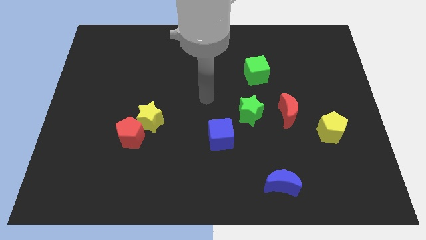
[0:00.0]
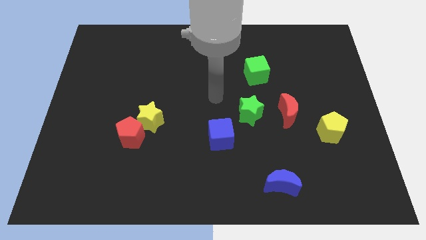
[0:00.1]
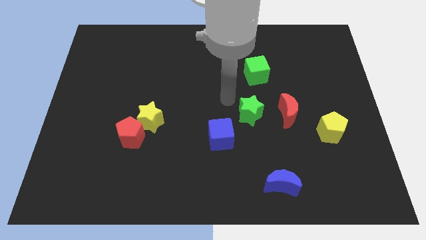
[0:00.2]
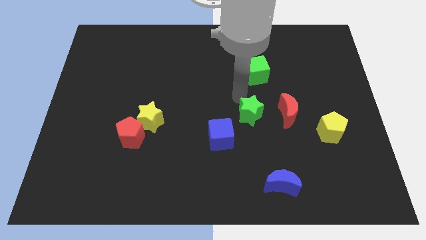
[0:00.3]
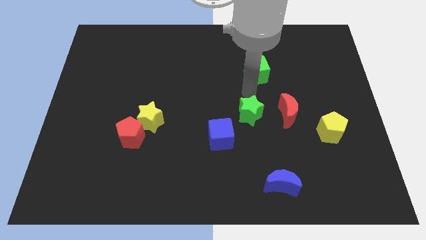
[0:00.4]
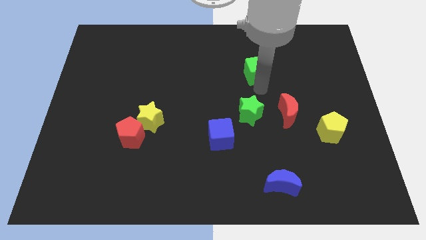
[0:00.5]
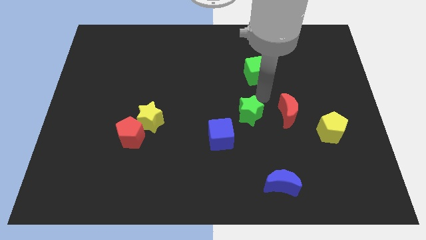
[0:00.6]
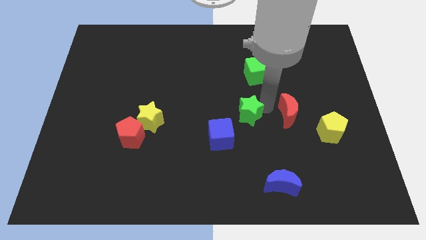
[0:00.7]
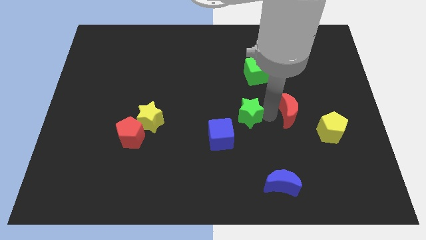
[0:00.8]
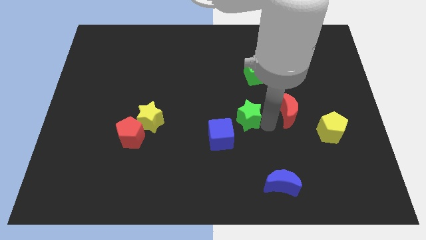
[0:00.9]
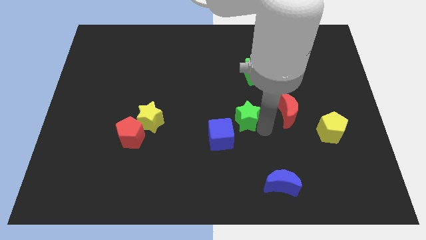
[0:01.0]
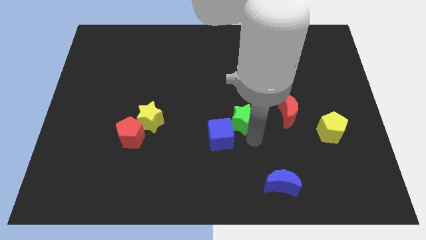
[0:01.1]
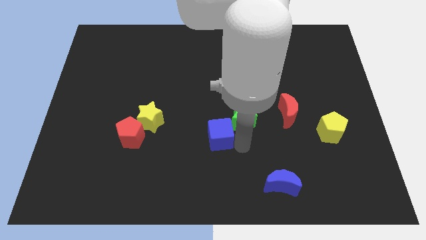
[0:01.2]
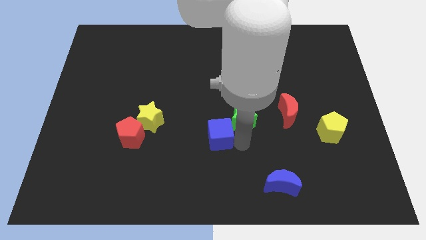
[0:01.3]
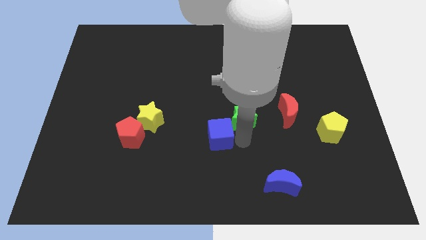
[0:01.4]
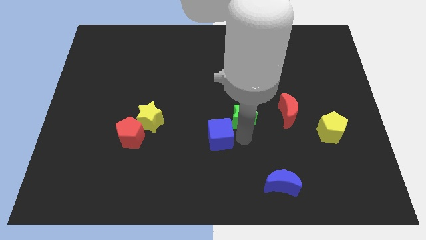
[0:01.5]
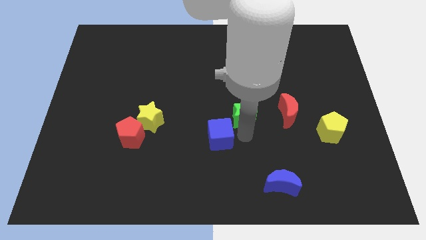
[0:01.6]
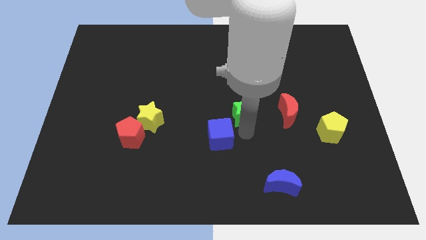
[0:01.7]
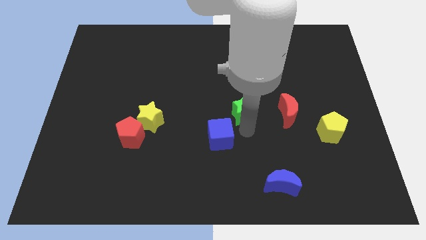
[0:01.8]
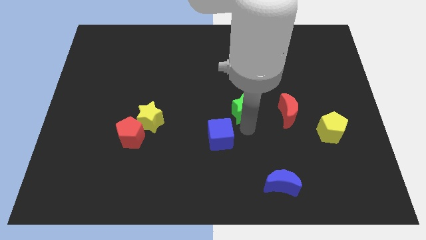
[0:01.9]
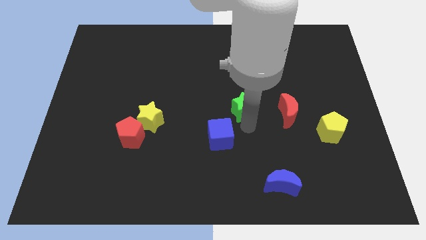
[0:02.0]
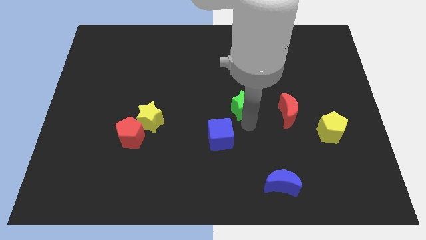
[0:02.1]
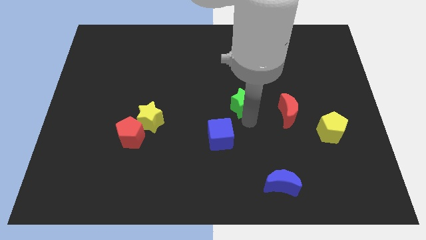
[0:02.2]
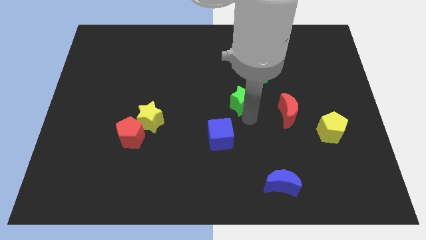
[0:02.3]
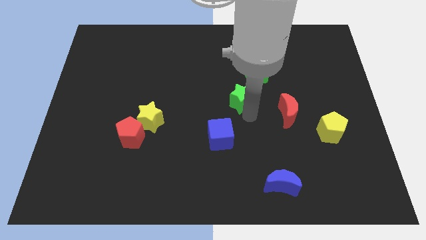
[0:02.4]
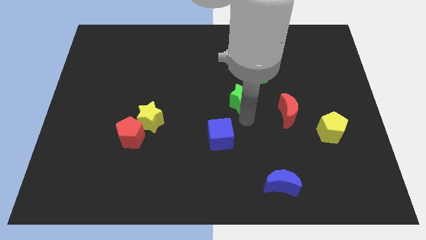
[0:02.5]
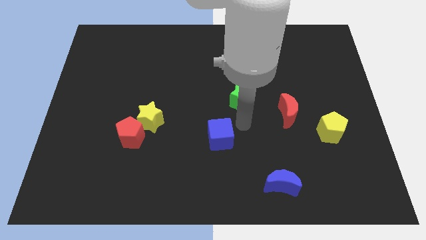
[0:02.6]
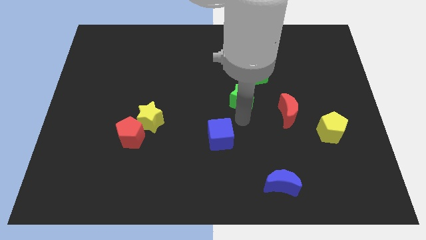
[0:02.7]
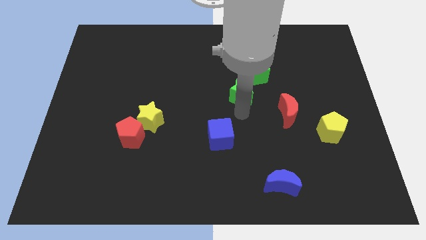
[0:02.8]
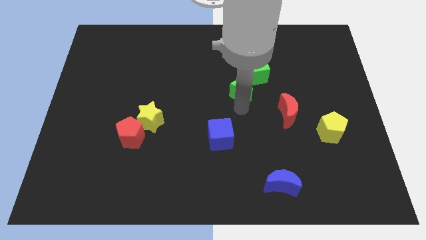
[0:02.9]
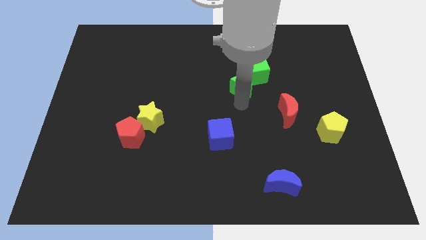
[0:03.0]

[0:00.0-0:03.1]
push the green star upwards a little

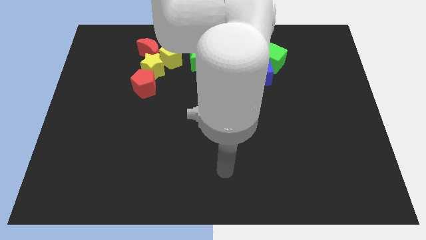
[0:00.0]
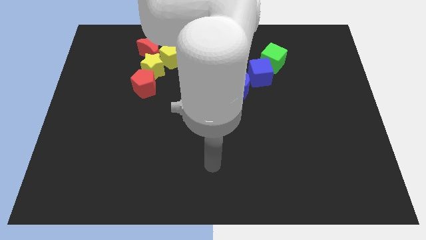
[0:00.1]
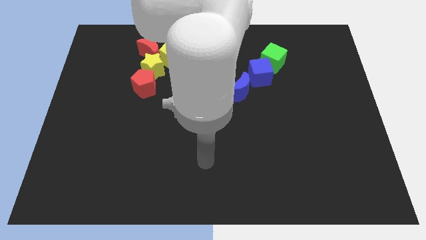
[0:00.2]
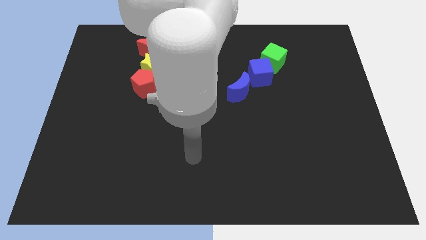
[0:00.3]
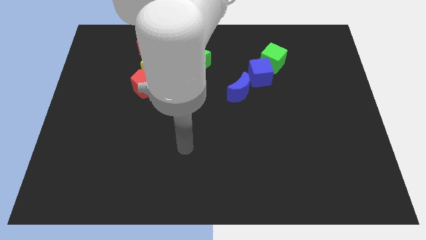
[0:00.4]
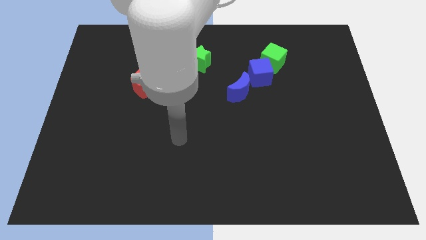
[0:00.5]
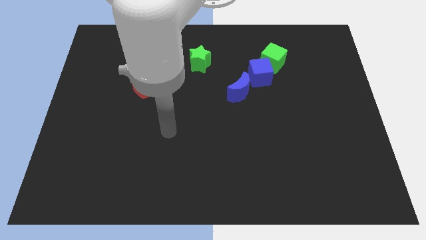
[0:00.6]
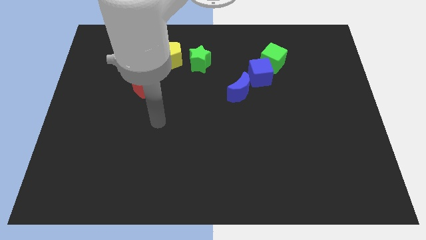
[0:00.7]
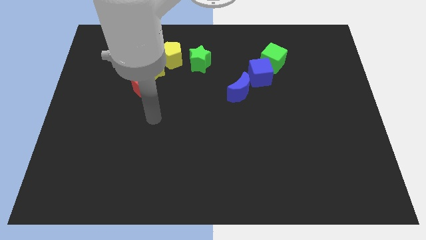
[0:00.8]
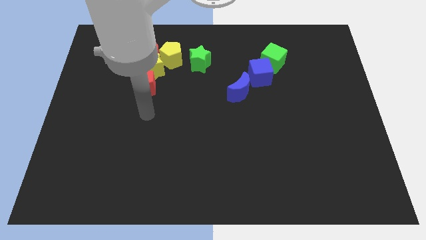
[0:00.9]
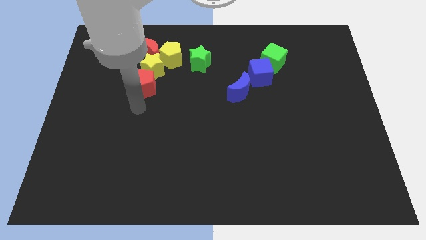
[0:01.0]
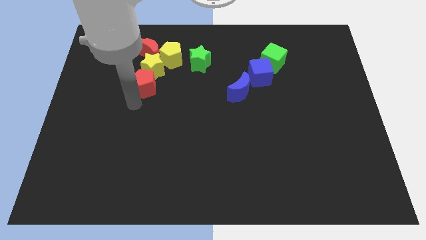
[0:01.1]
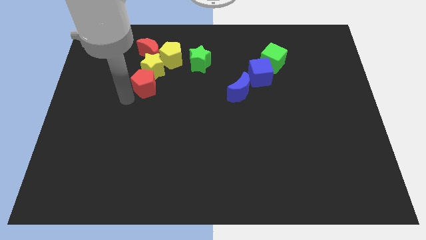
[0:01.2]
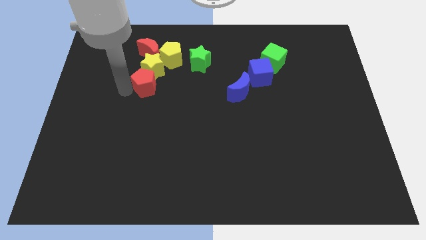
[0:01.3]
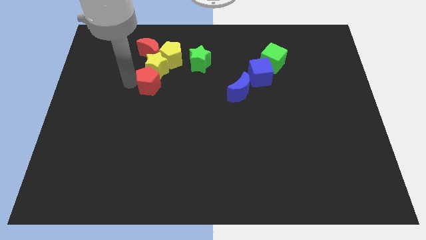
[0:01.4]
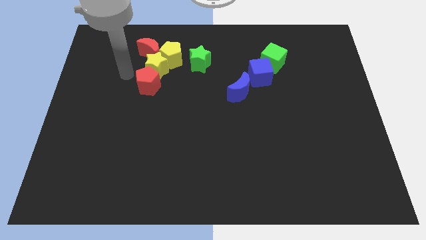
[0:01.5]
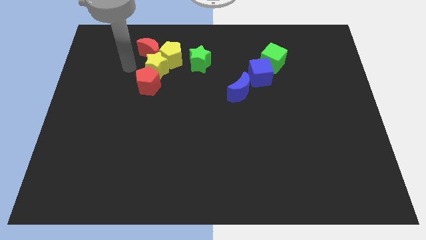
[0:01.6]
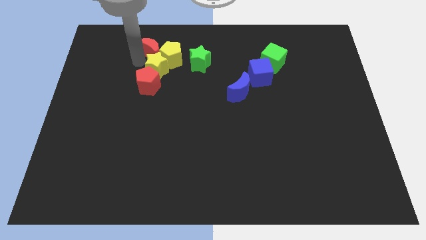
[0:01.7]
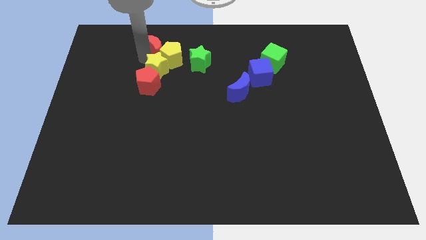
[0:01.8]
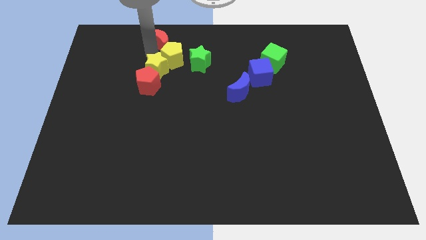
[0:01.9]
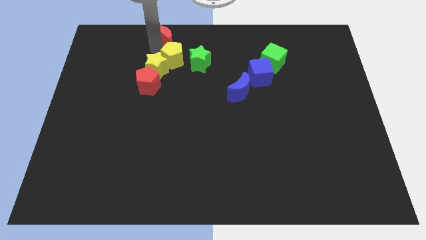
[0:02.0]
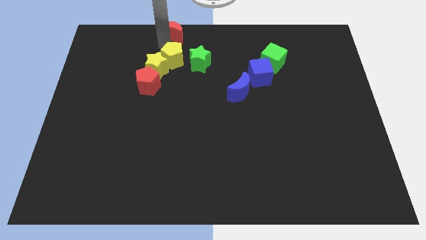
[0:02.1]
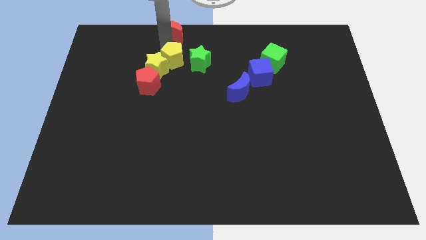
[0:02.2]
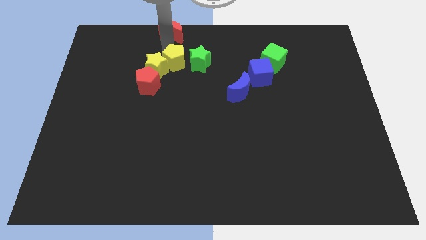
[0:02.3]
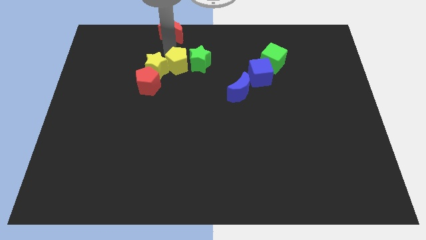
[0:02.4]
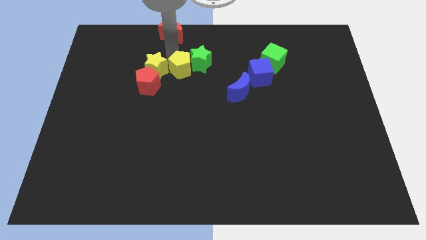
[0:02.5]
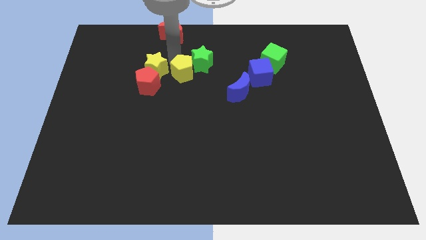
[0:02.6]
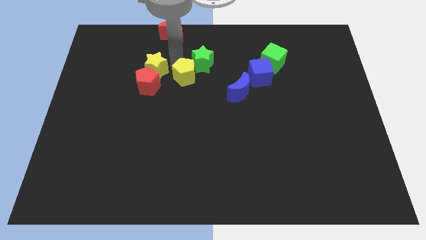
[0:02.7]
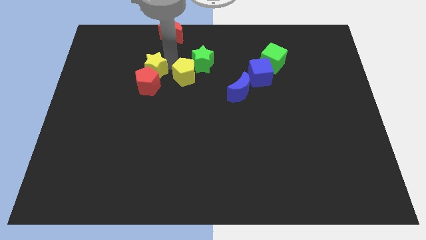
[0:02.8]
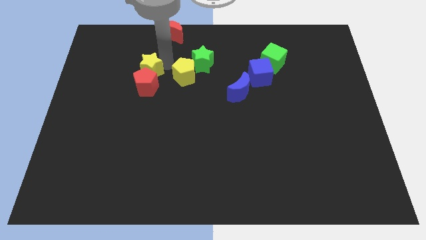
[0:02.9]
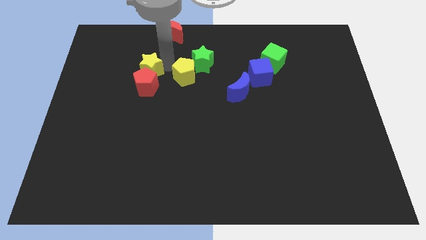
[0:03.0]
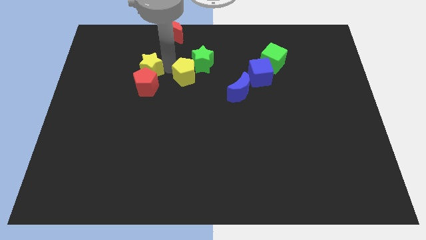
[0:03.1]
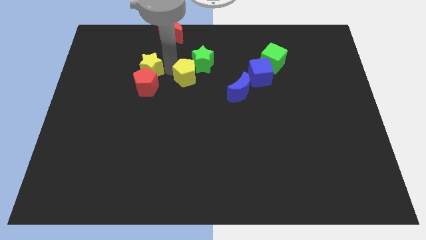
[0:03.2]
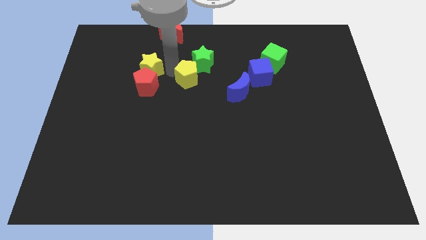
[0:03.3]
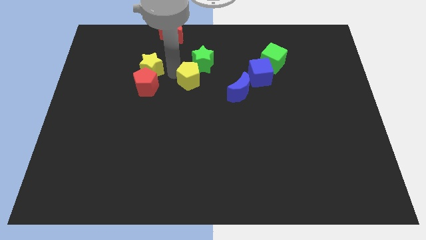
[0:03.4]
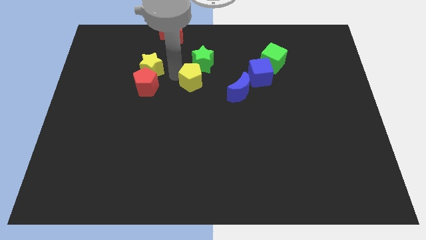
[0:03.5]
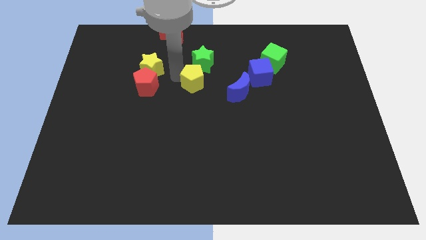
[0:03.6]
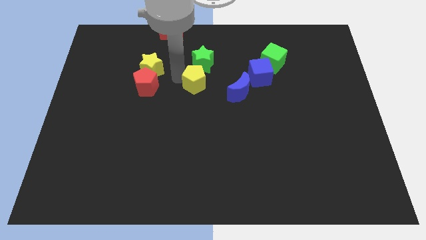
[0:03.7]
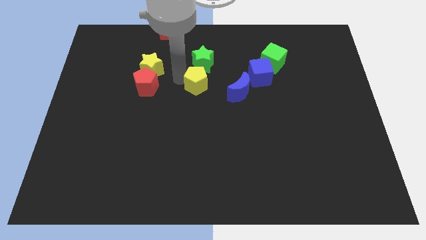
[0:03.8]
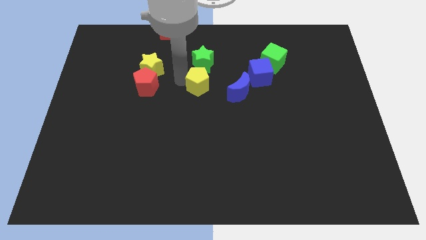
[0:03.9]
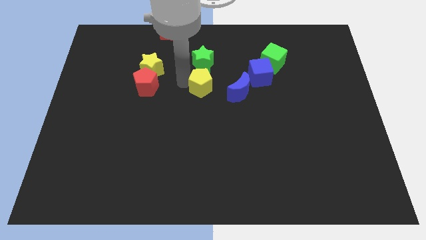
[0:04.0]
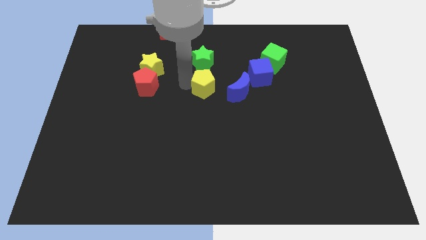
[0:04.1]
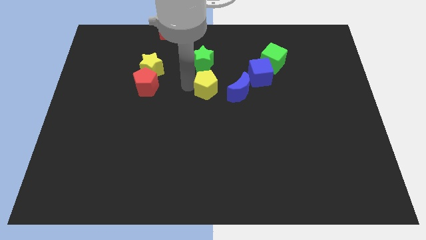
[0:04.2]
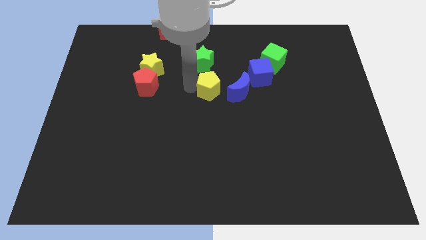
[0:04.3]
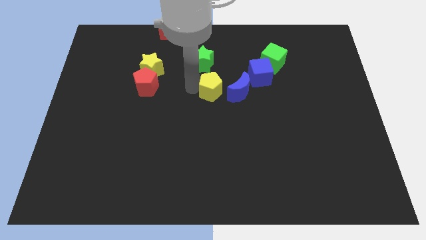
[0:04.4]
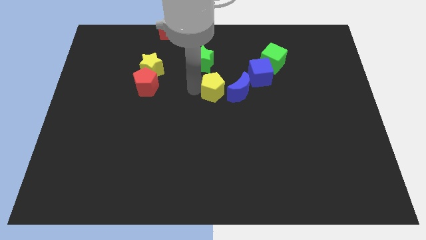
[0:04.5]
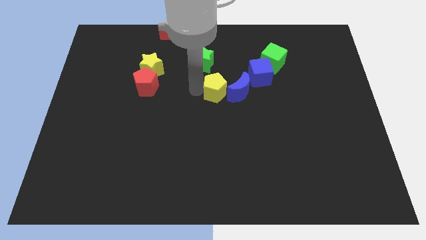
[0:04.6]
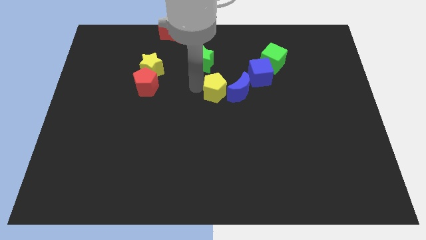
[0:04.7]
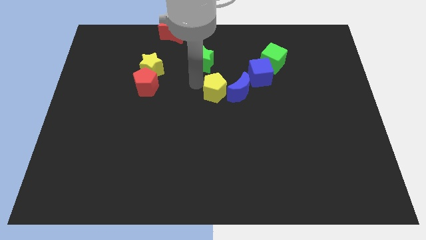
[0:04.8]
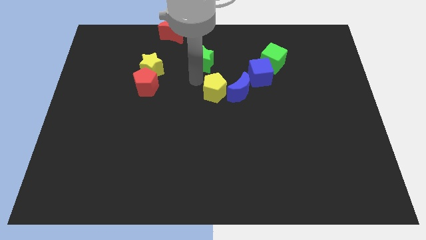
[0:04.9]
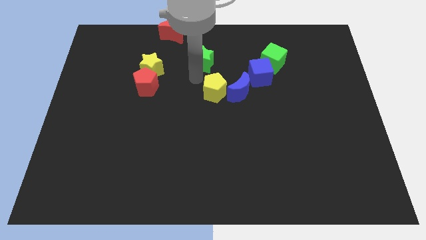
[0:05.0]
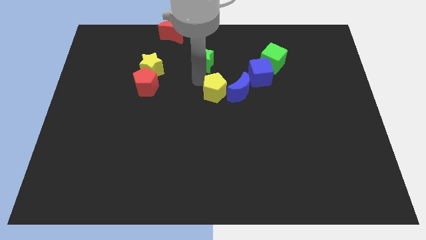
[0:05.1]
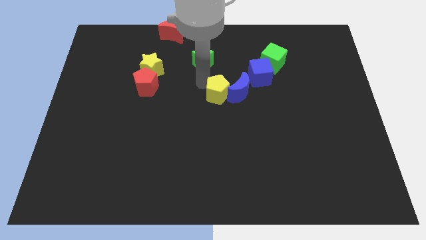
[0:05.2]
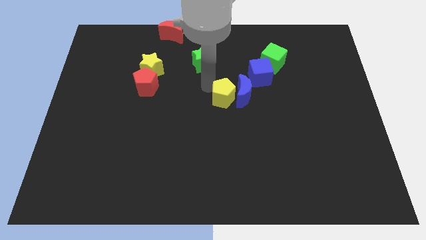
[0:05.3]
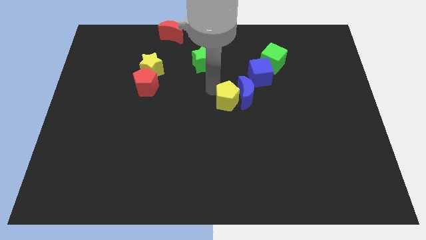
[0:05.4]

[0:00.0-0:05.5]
move the yellow pentagon down and right diagonally
